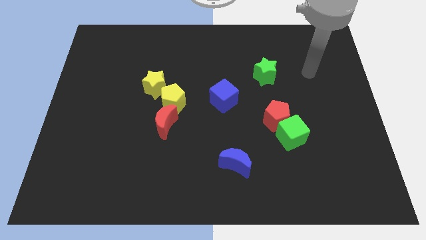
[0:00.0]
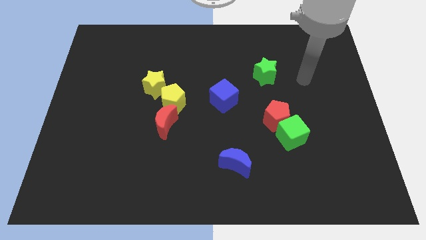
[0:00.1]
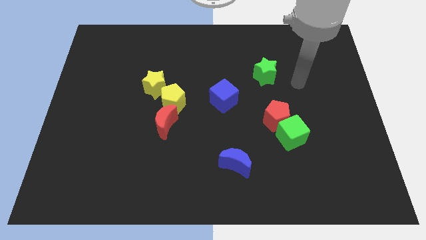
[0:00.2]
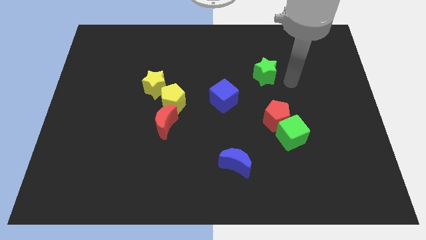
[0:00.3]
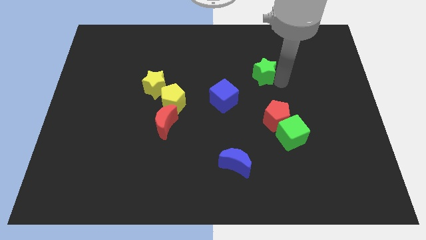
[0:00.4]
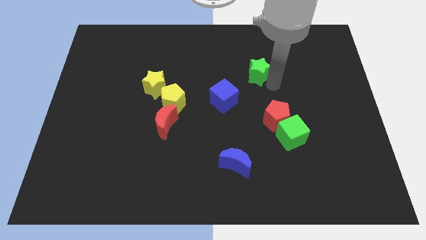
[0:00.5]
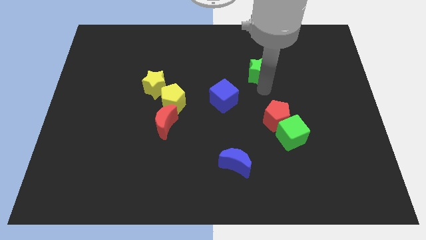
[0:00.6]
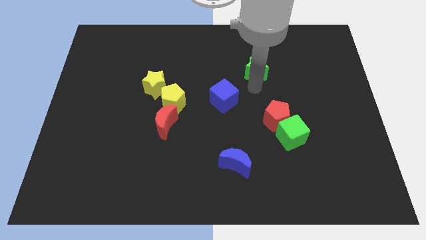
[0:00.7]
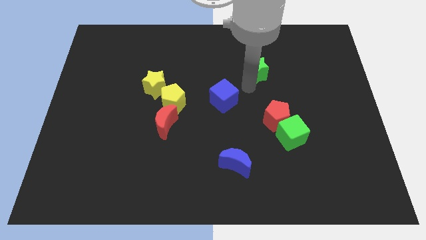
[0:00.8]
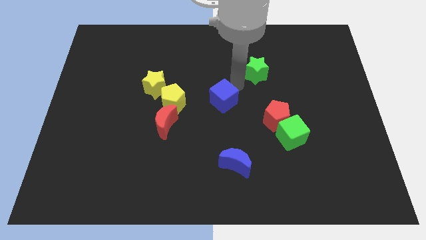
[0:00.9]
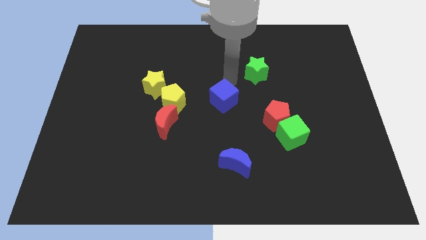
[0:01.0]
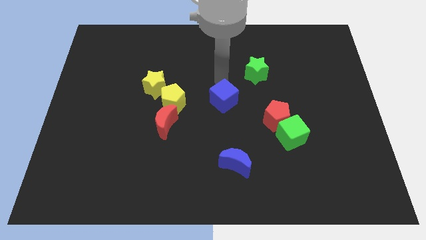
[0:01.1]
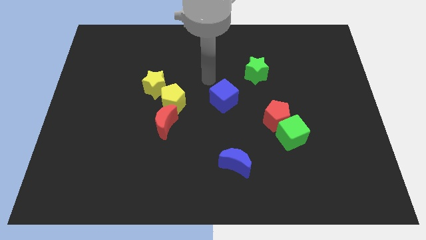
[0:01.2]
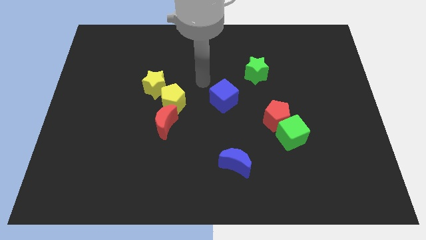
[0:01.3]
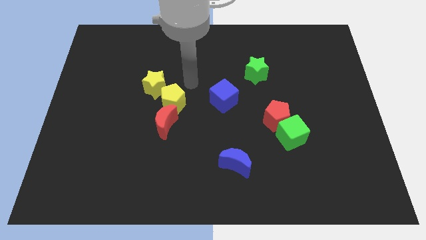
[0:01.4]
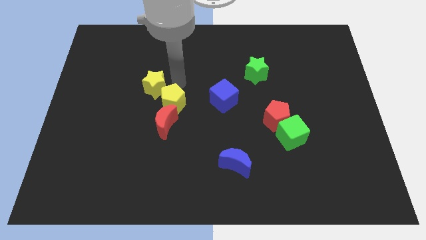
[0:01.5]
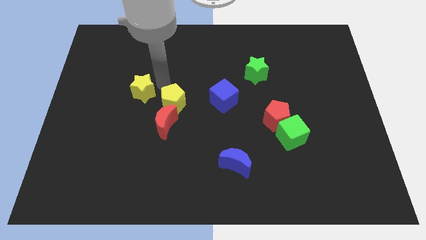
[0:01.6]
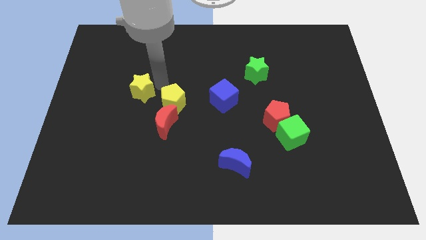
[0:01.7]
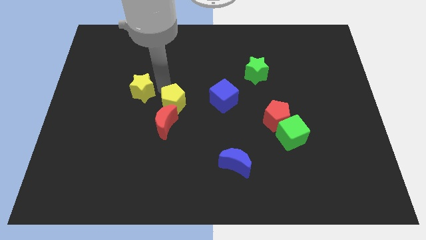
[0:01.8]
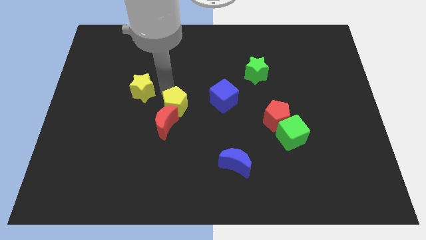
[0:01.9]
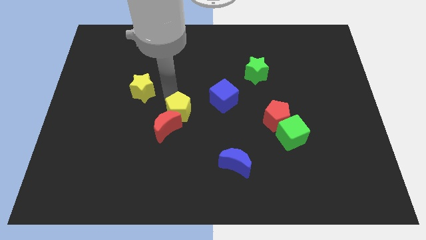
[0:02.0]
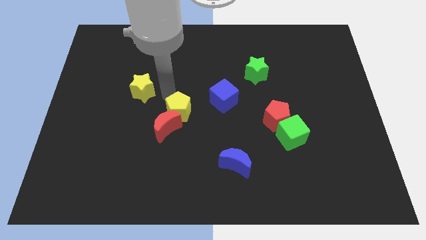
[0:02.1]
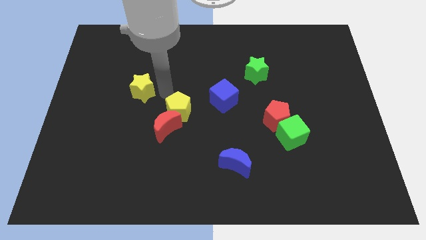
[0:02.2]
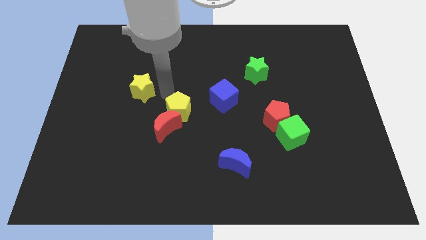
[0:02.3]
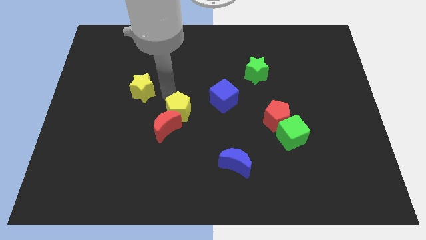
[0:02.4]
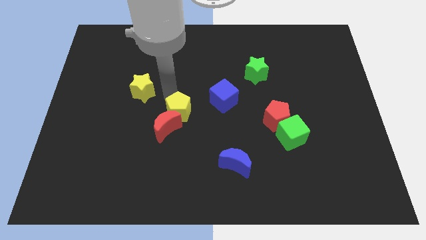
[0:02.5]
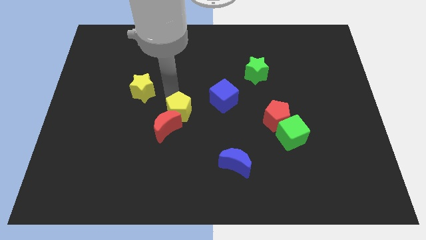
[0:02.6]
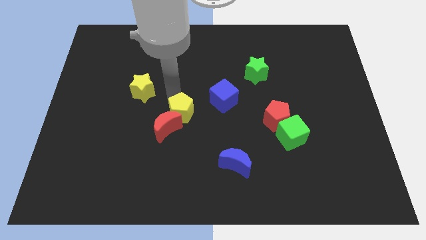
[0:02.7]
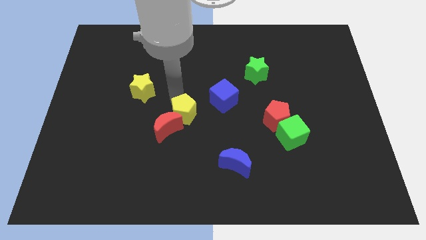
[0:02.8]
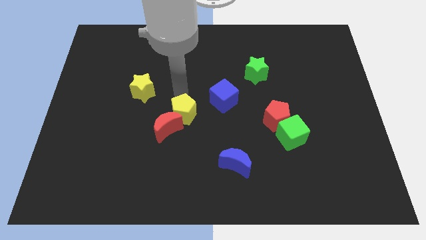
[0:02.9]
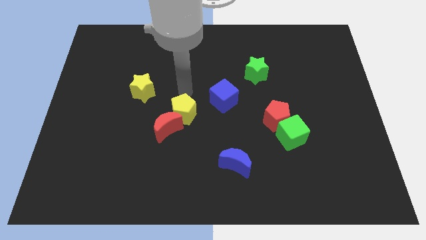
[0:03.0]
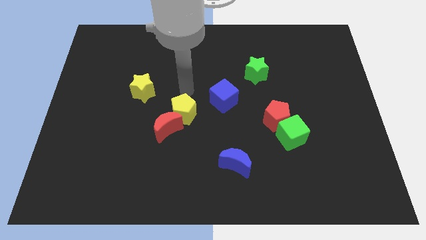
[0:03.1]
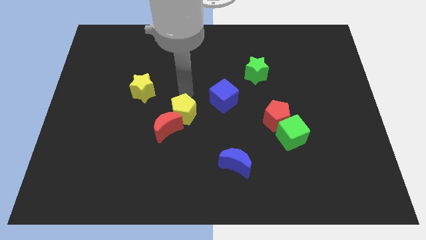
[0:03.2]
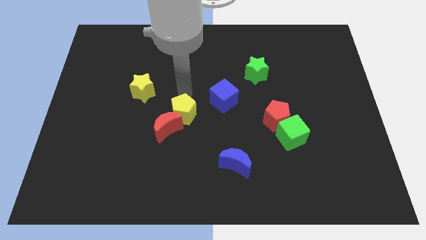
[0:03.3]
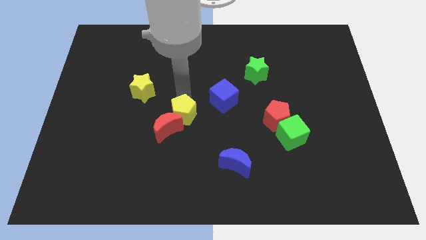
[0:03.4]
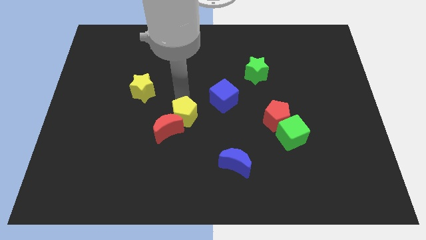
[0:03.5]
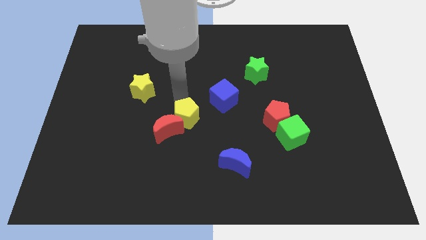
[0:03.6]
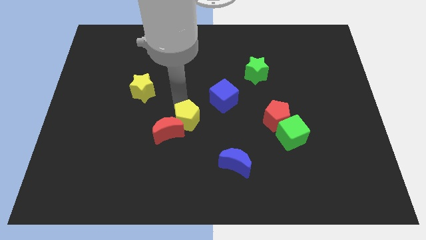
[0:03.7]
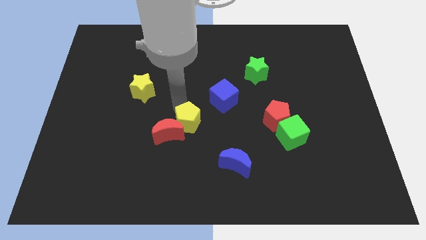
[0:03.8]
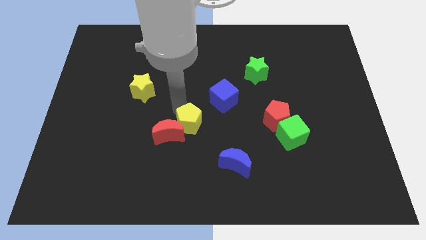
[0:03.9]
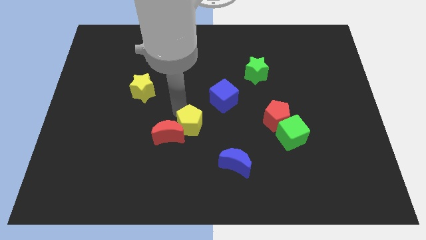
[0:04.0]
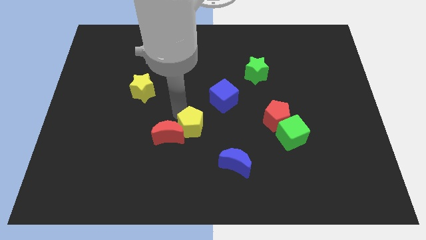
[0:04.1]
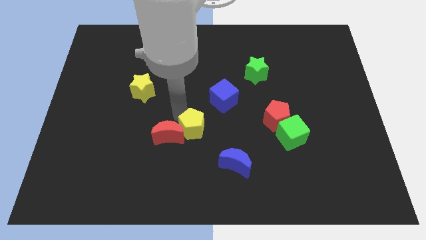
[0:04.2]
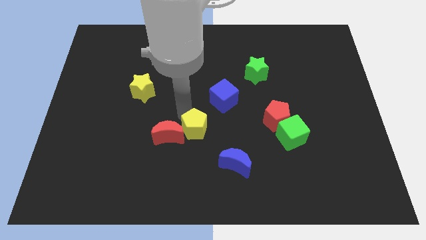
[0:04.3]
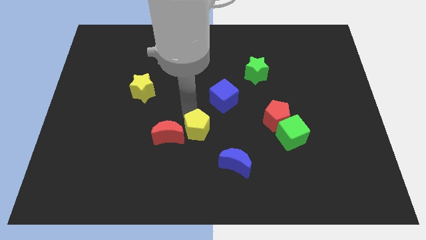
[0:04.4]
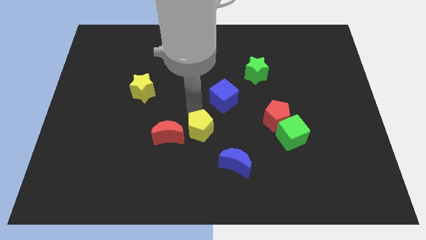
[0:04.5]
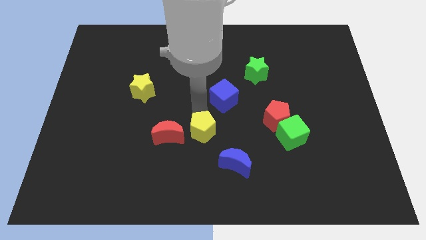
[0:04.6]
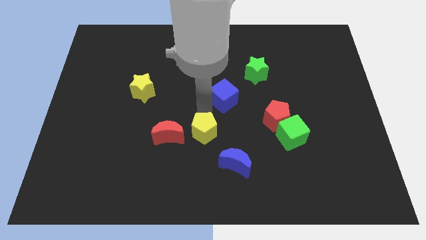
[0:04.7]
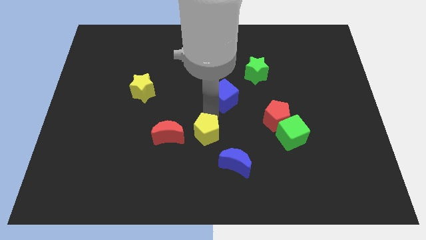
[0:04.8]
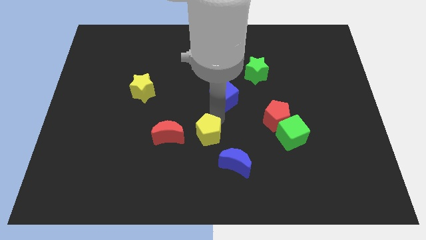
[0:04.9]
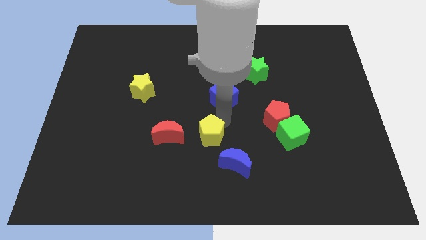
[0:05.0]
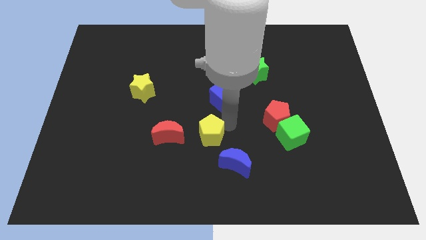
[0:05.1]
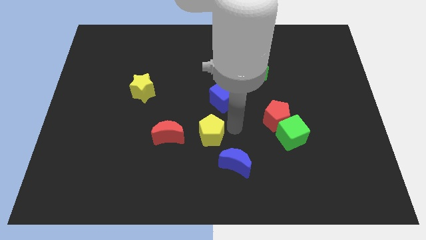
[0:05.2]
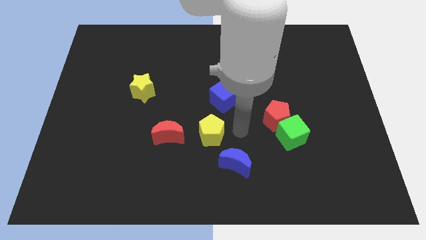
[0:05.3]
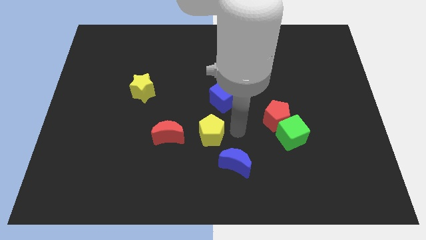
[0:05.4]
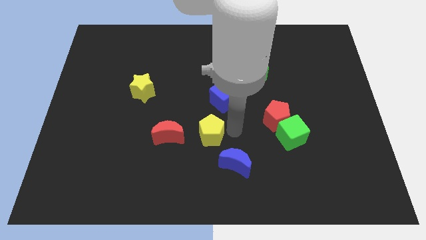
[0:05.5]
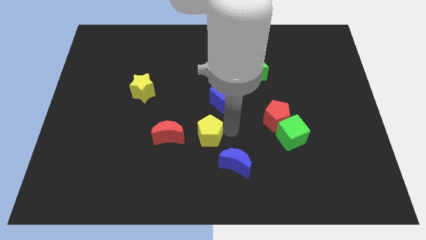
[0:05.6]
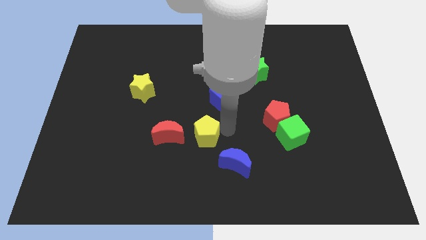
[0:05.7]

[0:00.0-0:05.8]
slide the yellow pentagon downwards a little bit

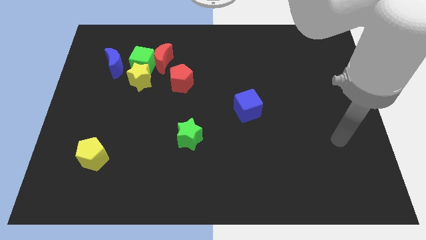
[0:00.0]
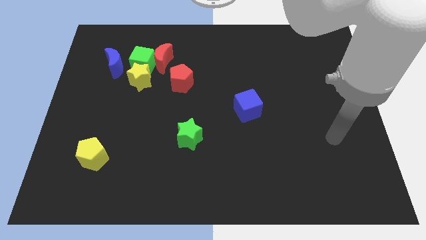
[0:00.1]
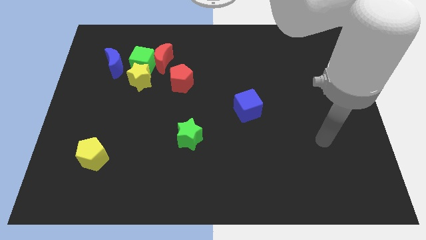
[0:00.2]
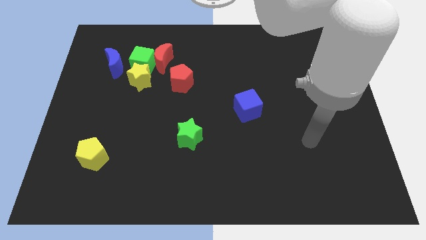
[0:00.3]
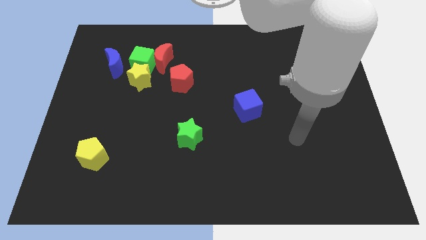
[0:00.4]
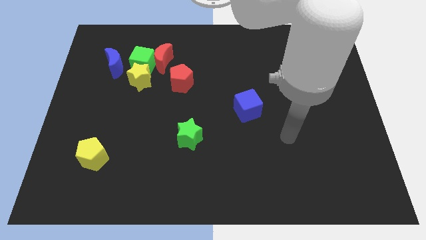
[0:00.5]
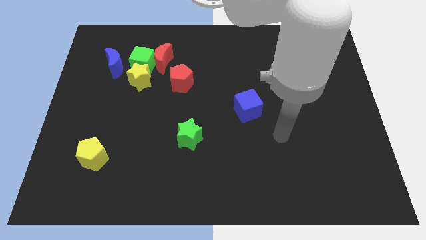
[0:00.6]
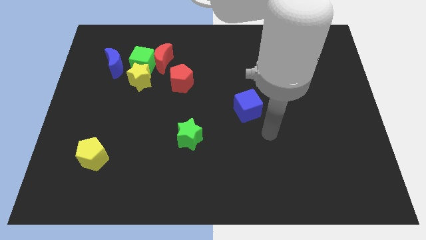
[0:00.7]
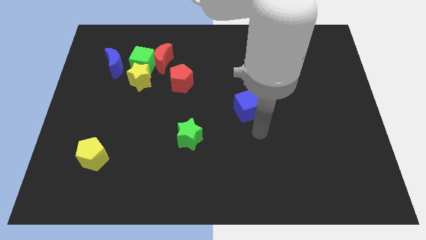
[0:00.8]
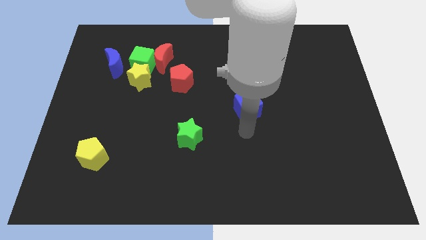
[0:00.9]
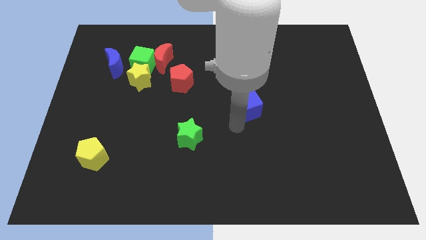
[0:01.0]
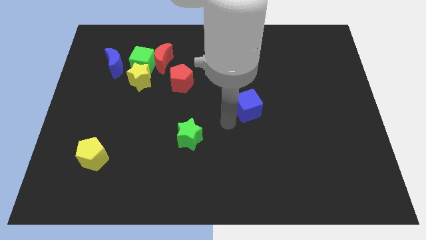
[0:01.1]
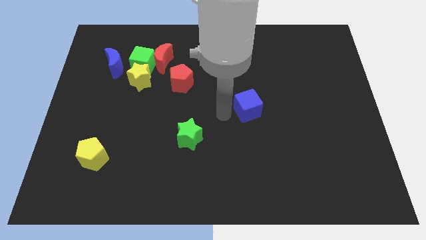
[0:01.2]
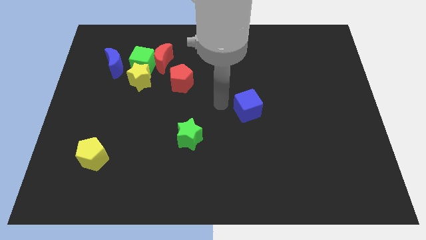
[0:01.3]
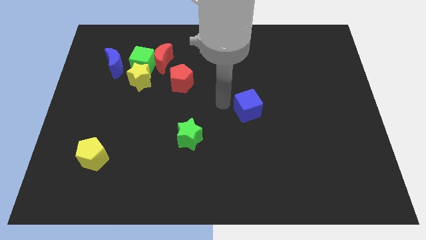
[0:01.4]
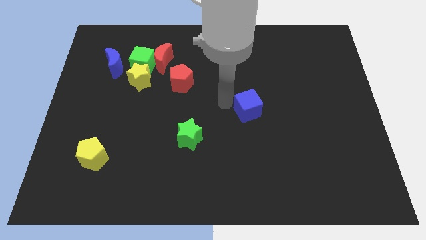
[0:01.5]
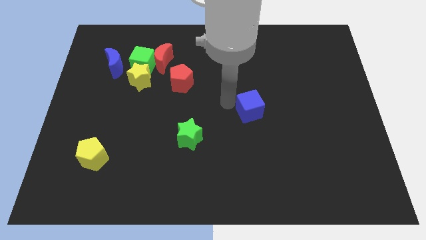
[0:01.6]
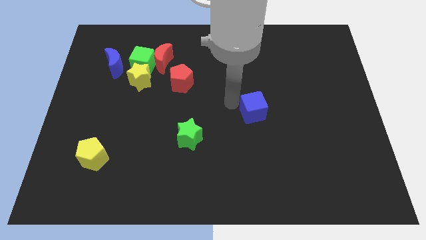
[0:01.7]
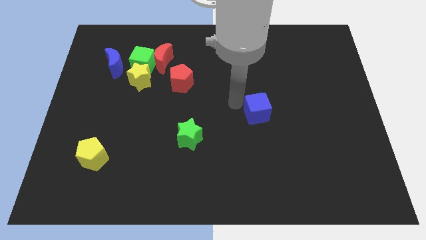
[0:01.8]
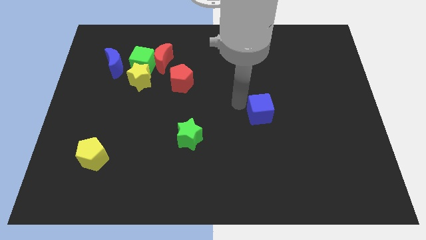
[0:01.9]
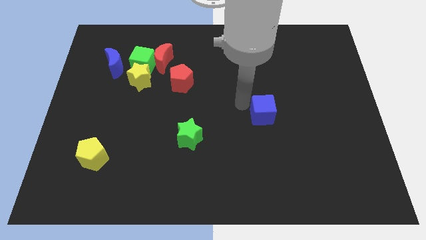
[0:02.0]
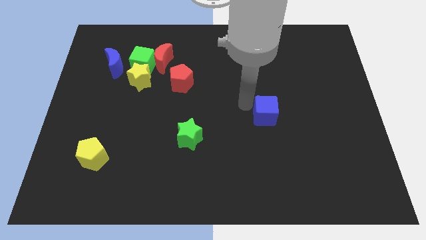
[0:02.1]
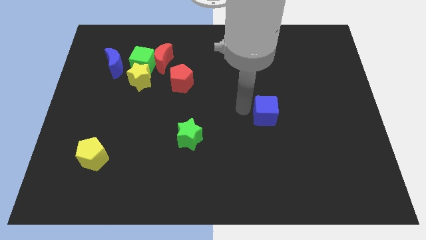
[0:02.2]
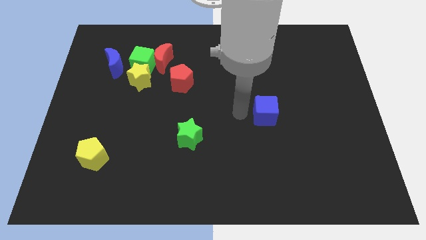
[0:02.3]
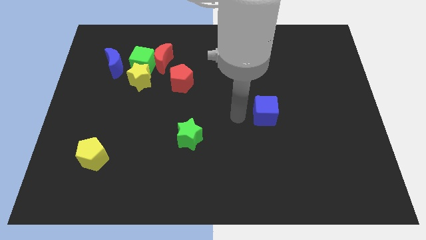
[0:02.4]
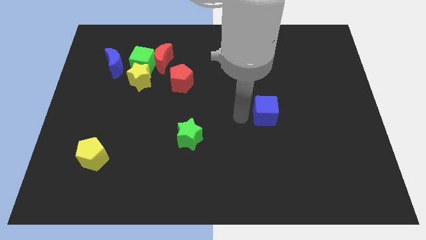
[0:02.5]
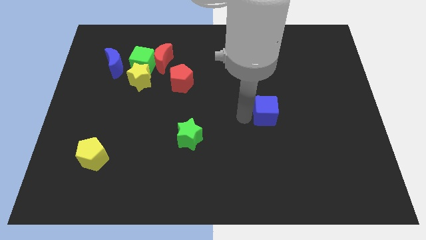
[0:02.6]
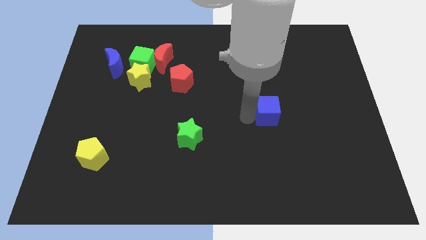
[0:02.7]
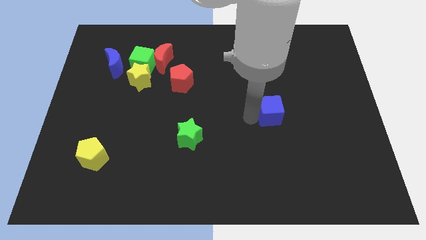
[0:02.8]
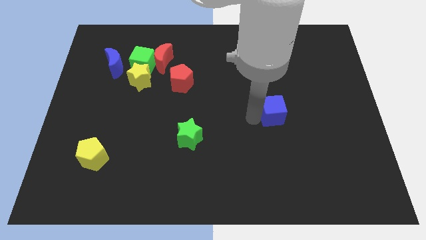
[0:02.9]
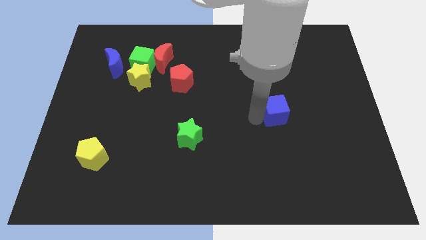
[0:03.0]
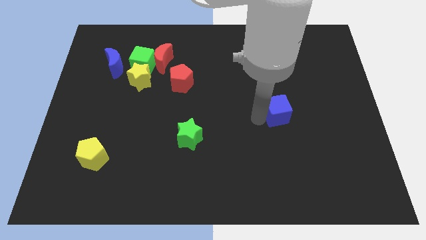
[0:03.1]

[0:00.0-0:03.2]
slightly move the blue cube to the right
